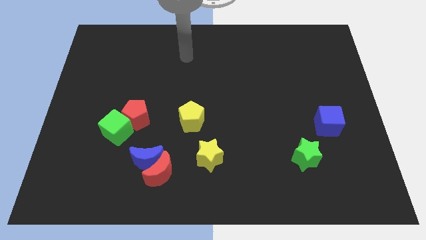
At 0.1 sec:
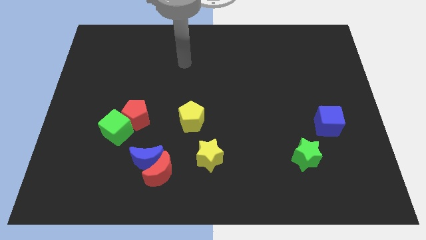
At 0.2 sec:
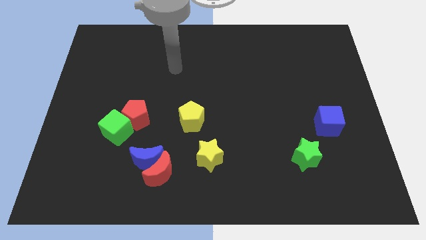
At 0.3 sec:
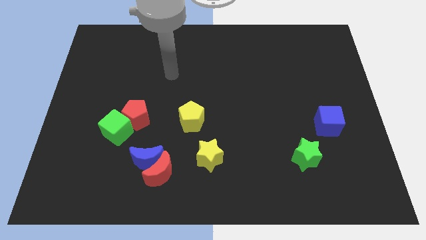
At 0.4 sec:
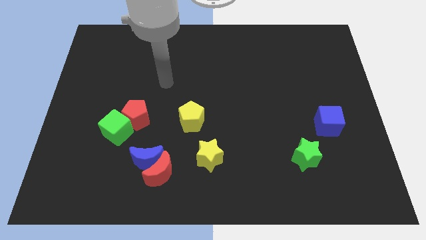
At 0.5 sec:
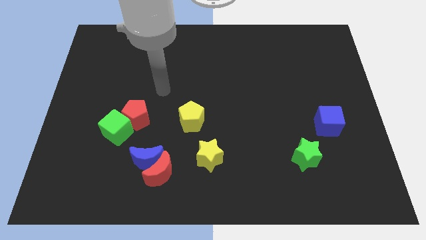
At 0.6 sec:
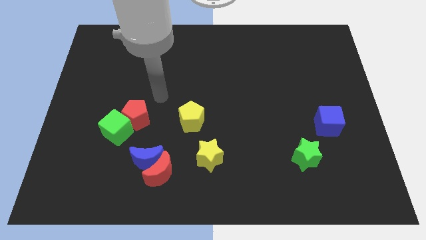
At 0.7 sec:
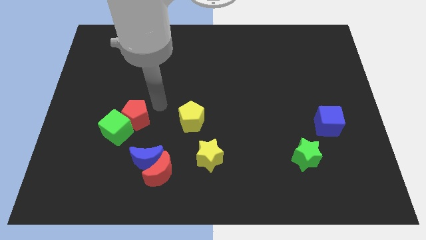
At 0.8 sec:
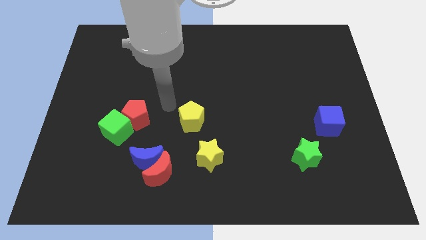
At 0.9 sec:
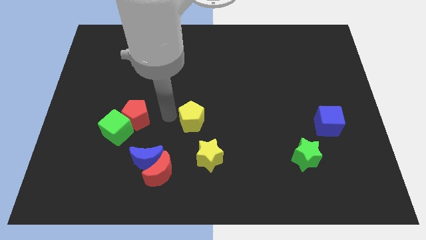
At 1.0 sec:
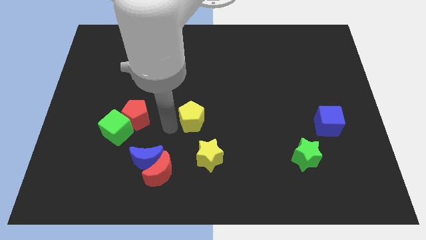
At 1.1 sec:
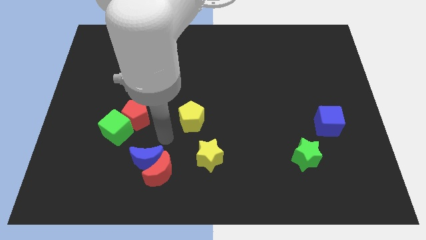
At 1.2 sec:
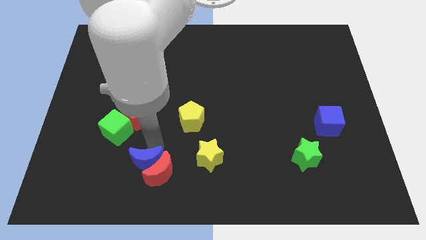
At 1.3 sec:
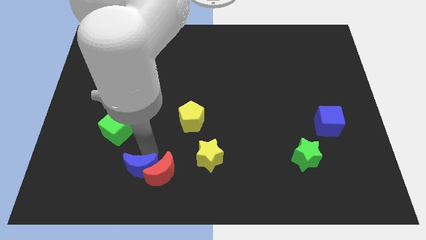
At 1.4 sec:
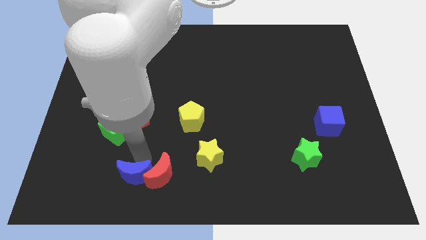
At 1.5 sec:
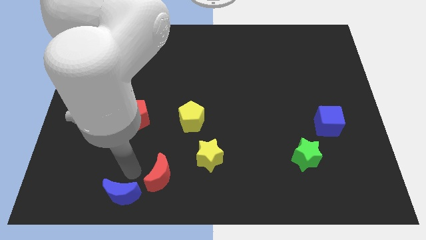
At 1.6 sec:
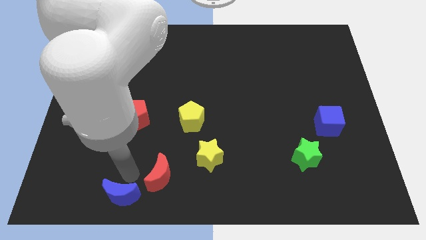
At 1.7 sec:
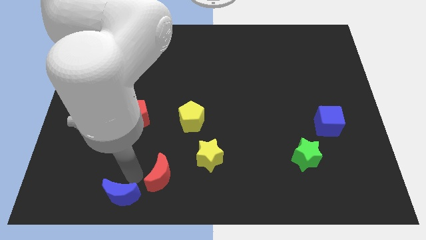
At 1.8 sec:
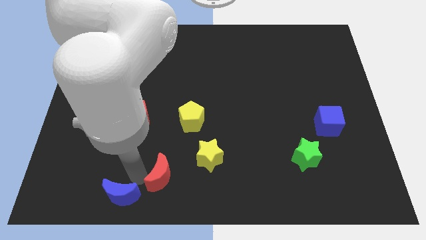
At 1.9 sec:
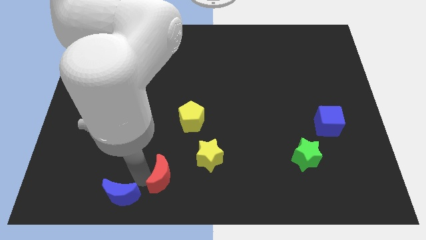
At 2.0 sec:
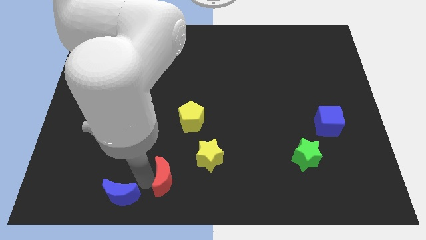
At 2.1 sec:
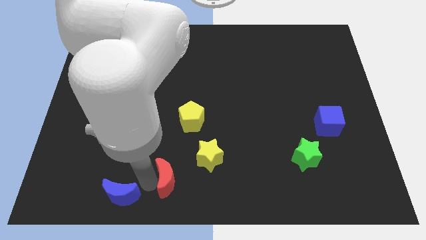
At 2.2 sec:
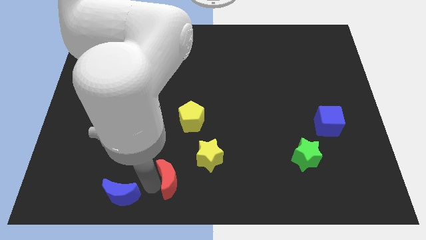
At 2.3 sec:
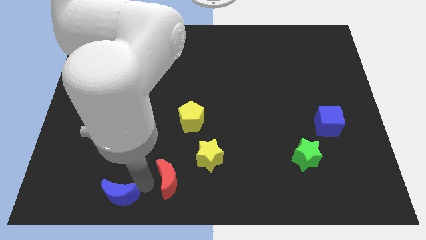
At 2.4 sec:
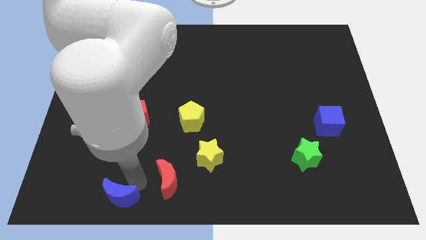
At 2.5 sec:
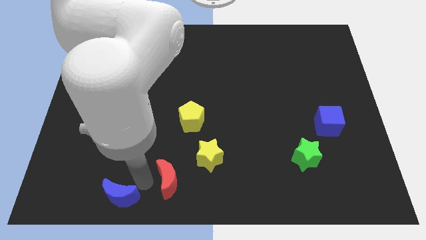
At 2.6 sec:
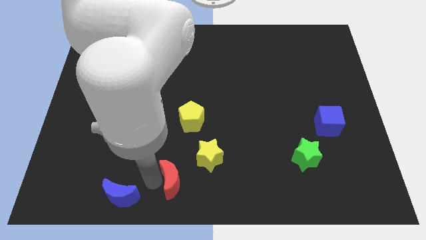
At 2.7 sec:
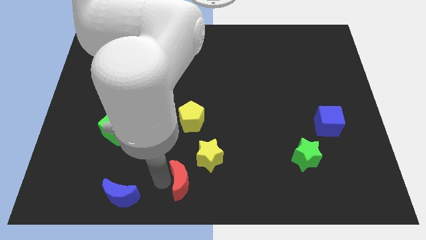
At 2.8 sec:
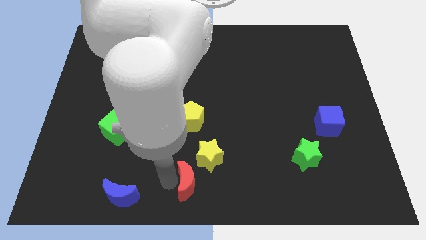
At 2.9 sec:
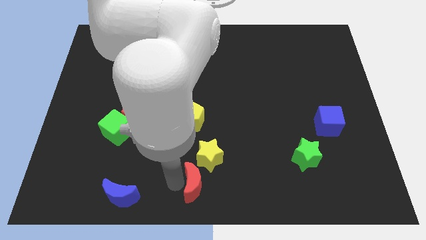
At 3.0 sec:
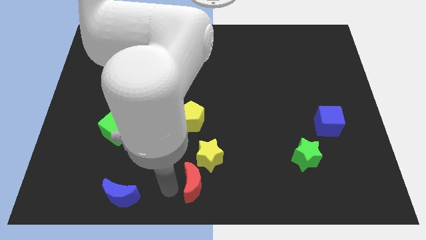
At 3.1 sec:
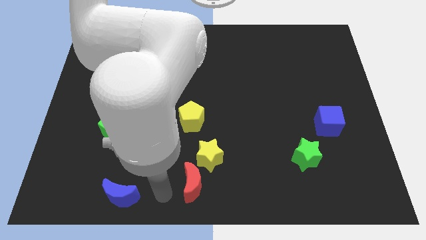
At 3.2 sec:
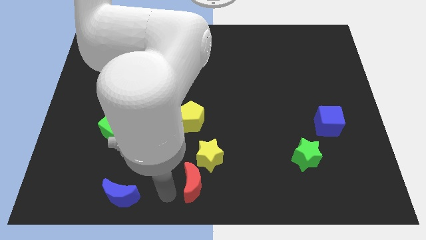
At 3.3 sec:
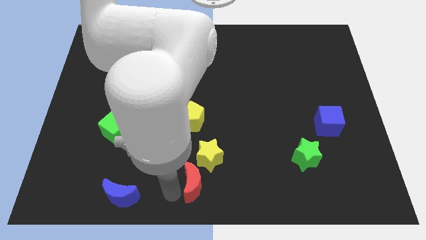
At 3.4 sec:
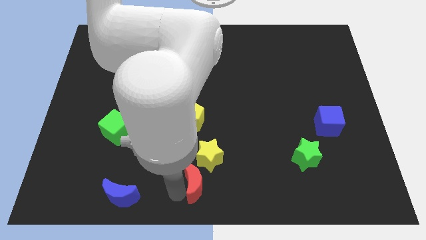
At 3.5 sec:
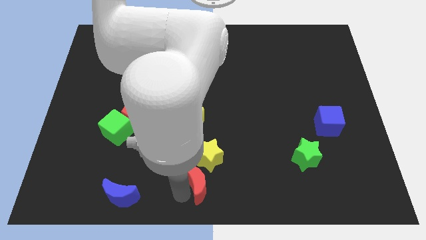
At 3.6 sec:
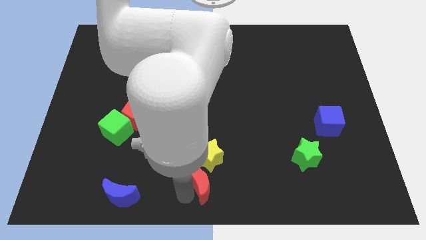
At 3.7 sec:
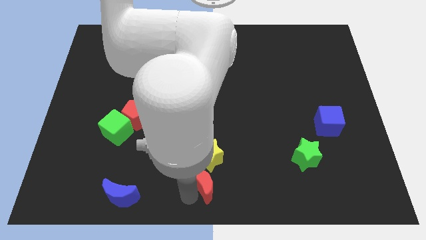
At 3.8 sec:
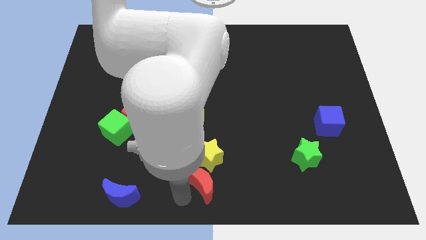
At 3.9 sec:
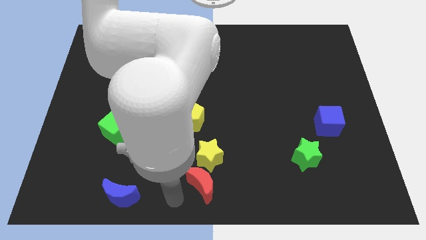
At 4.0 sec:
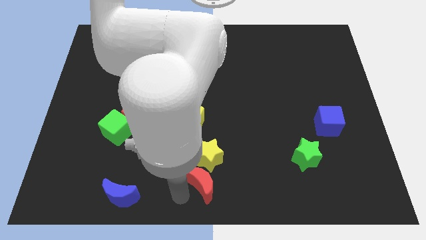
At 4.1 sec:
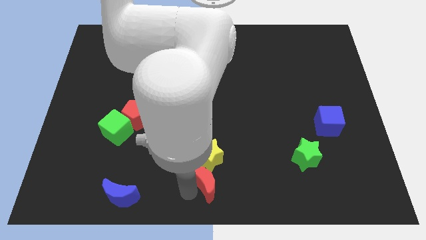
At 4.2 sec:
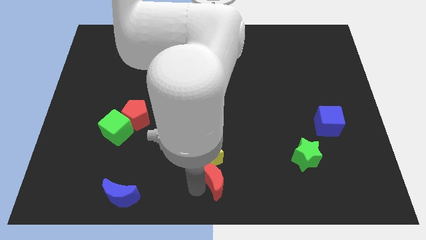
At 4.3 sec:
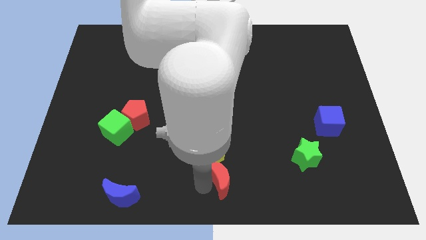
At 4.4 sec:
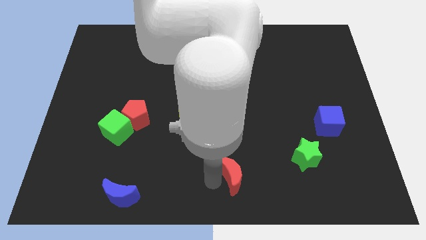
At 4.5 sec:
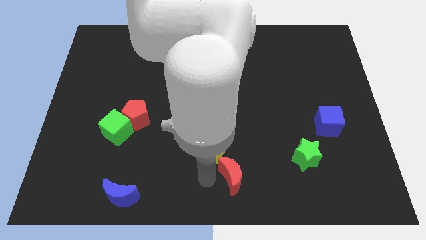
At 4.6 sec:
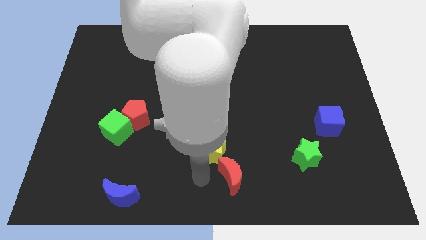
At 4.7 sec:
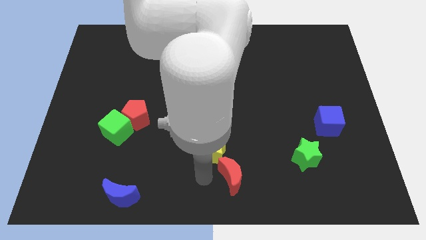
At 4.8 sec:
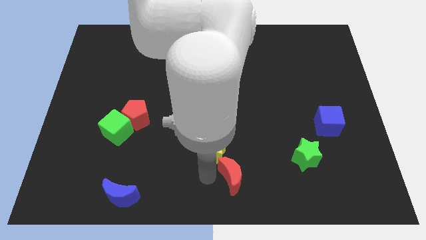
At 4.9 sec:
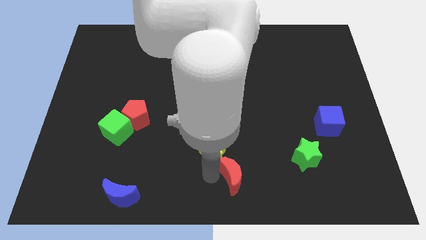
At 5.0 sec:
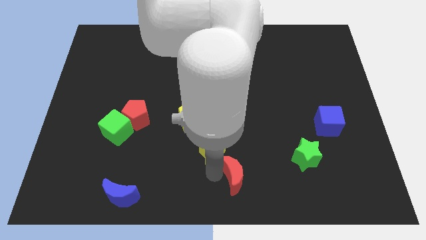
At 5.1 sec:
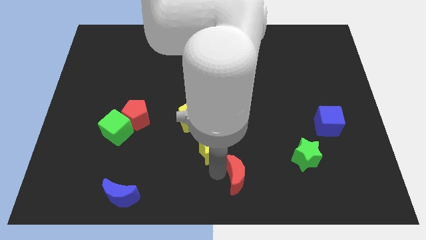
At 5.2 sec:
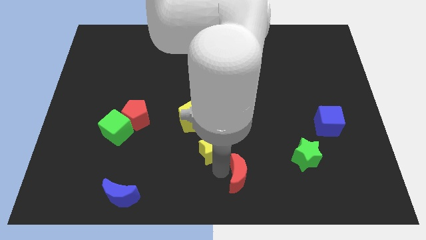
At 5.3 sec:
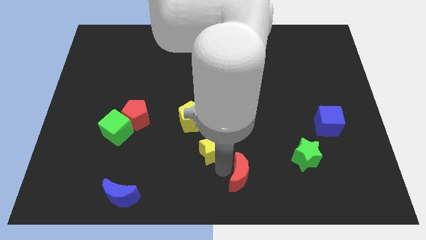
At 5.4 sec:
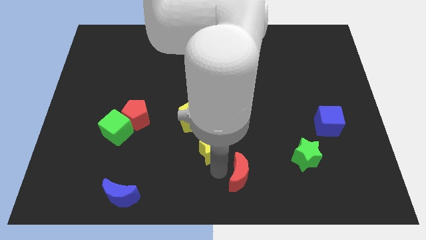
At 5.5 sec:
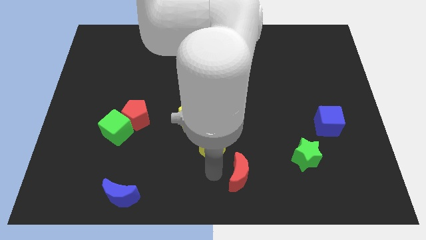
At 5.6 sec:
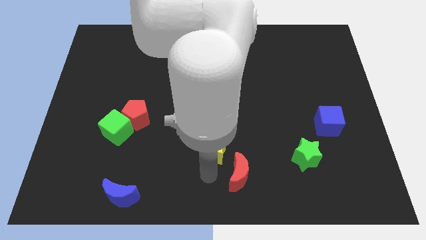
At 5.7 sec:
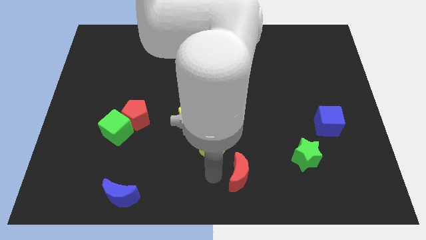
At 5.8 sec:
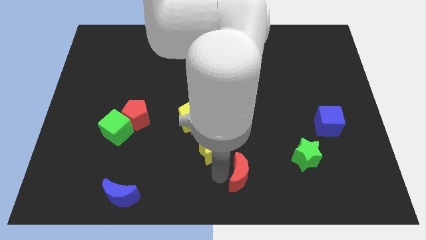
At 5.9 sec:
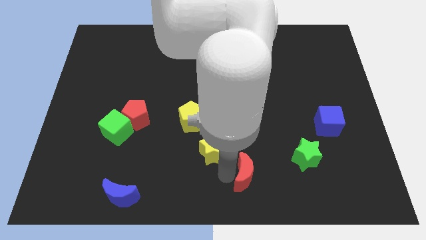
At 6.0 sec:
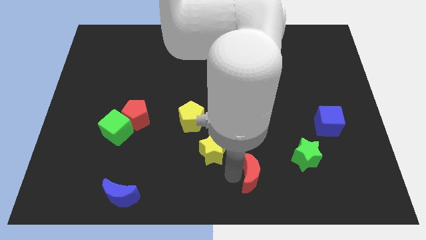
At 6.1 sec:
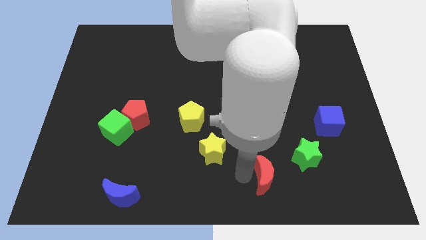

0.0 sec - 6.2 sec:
slide the red moon right

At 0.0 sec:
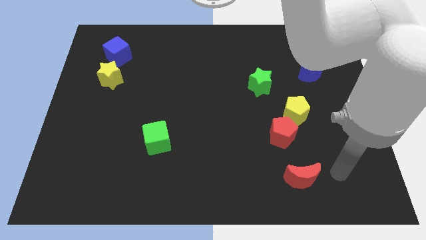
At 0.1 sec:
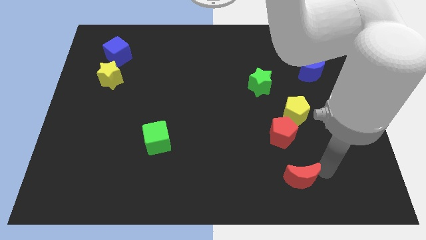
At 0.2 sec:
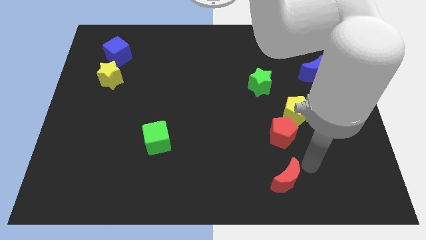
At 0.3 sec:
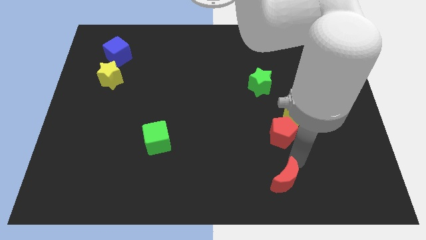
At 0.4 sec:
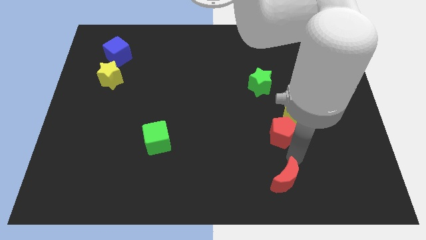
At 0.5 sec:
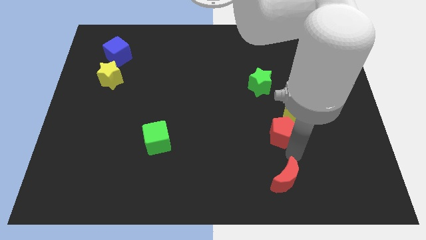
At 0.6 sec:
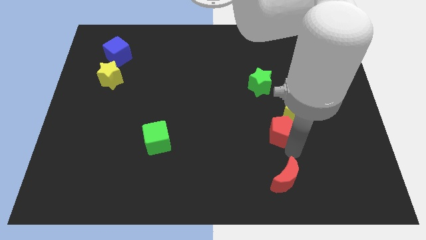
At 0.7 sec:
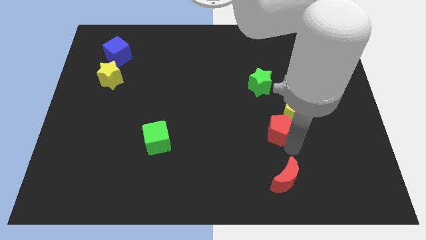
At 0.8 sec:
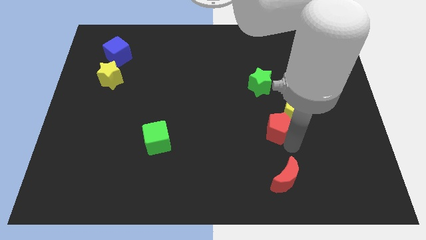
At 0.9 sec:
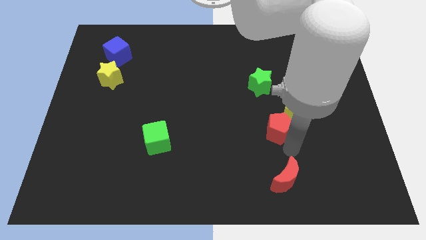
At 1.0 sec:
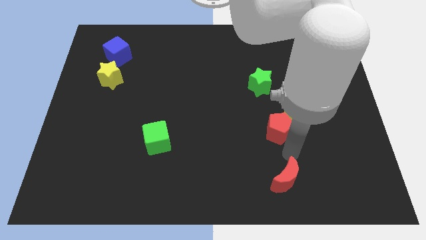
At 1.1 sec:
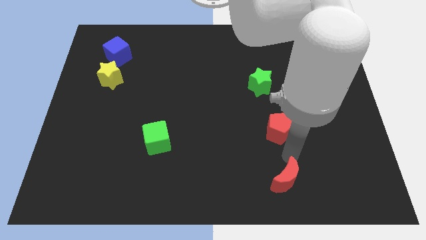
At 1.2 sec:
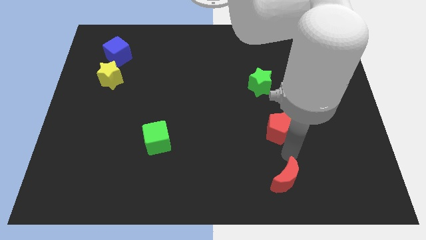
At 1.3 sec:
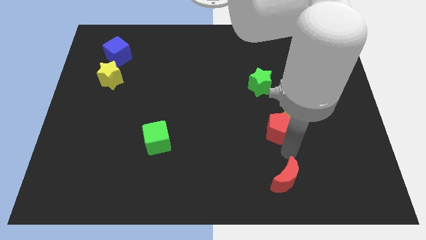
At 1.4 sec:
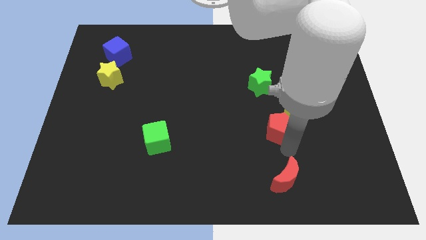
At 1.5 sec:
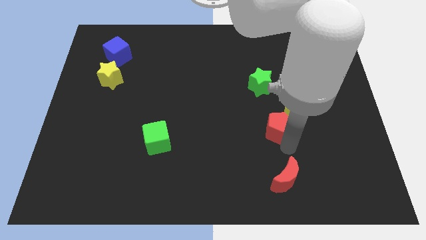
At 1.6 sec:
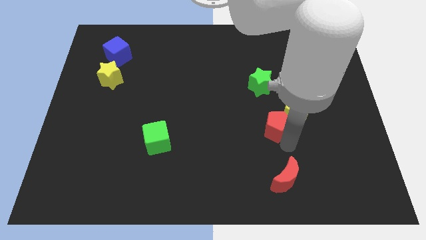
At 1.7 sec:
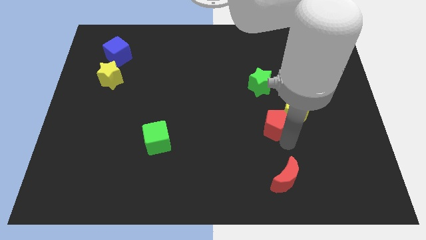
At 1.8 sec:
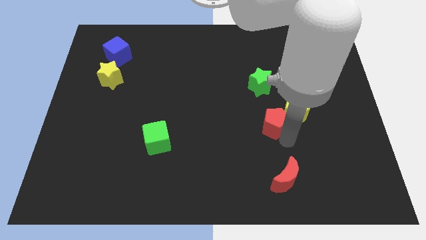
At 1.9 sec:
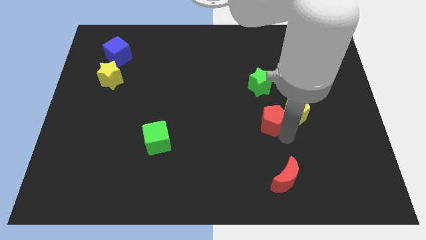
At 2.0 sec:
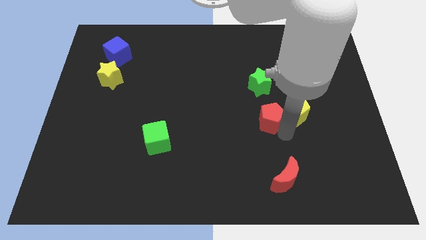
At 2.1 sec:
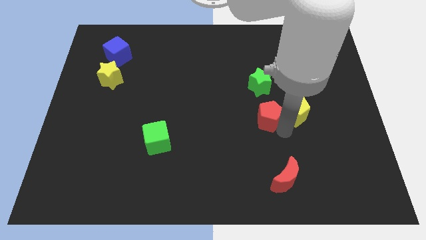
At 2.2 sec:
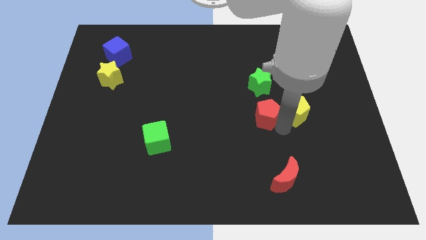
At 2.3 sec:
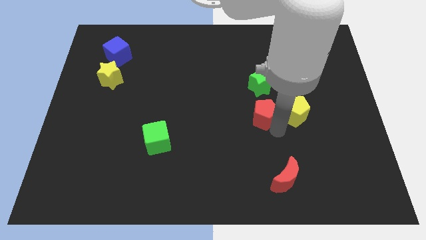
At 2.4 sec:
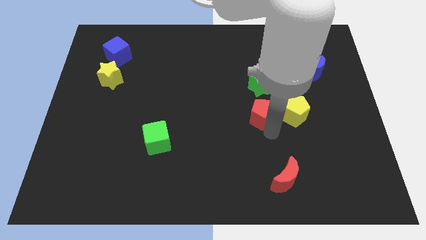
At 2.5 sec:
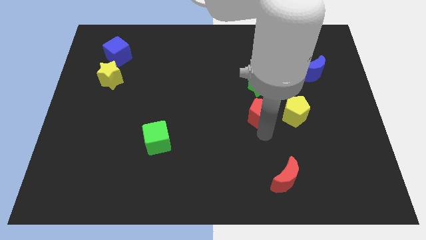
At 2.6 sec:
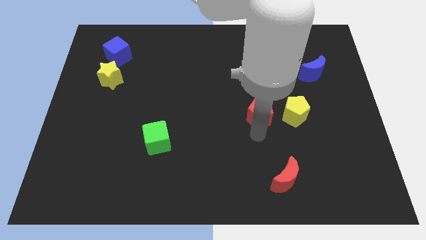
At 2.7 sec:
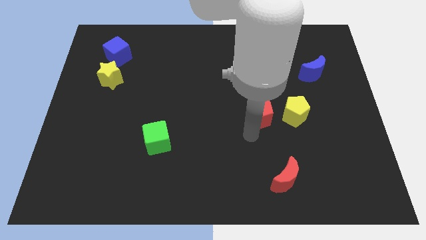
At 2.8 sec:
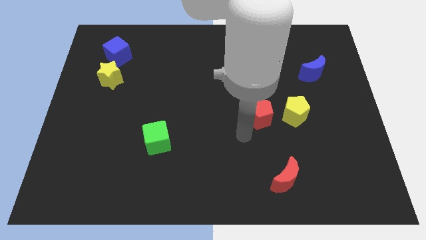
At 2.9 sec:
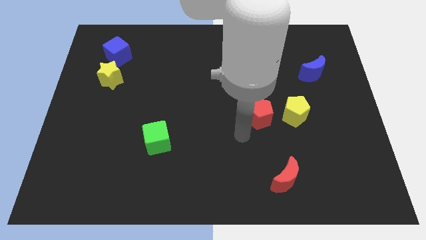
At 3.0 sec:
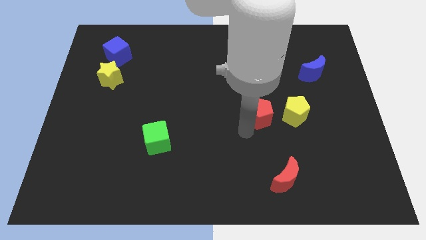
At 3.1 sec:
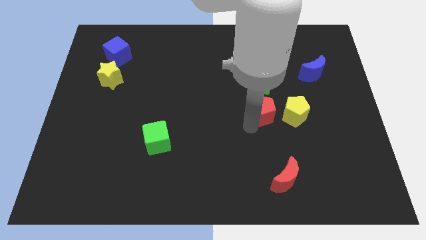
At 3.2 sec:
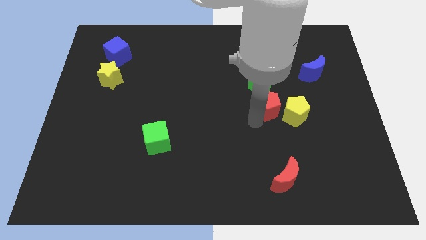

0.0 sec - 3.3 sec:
slide the red pentagon up a bit
